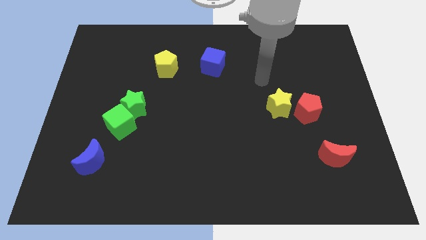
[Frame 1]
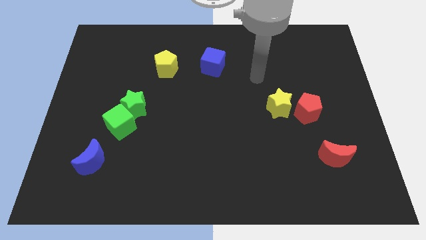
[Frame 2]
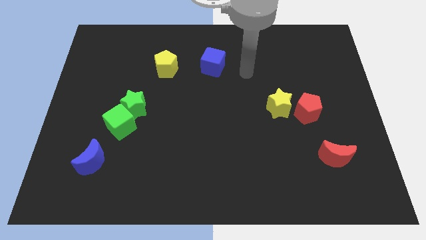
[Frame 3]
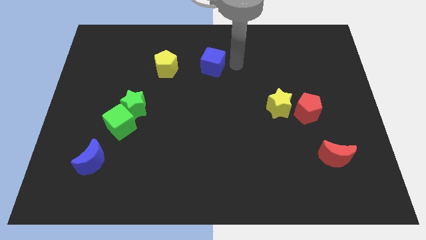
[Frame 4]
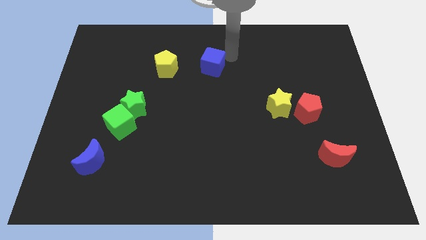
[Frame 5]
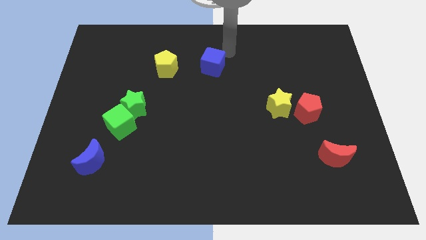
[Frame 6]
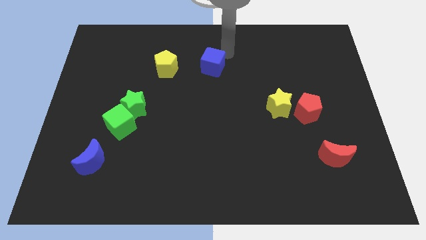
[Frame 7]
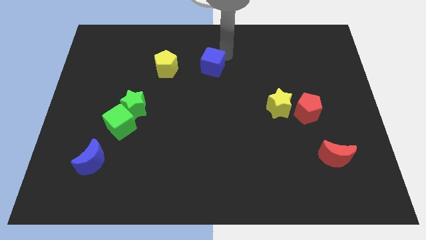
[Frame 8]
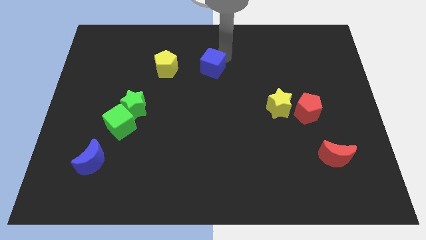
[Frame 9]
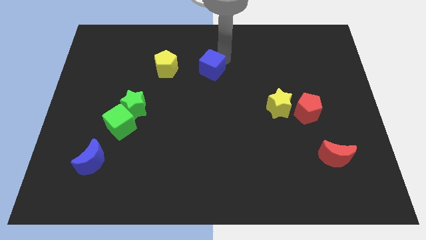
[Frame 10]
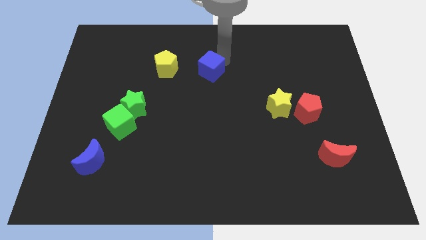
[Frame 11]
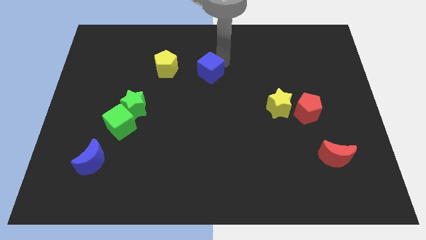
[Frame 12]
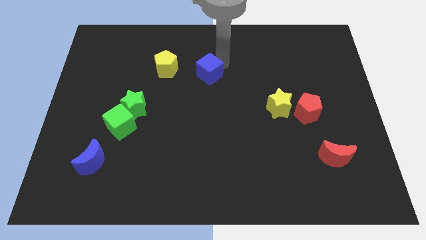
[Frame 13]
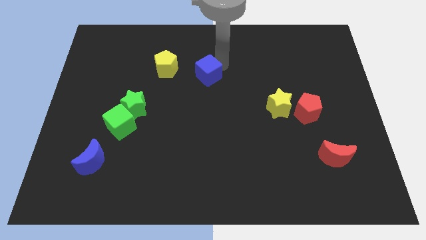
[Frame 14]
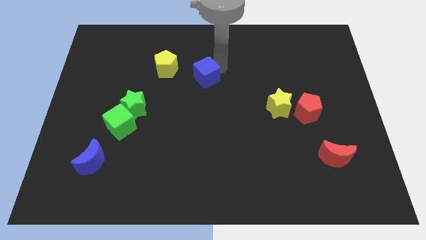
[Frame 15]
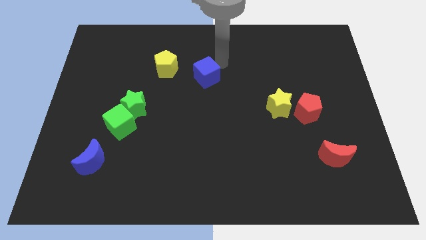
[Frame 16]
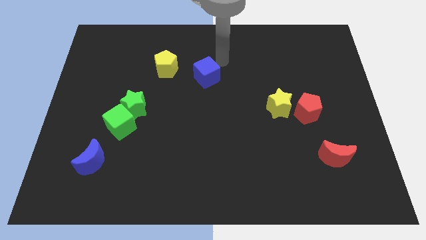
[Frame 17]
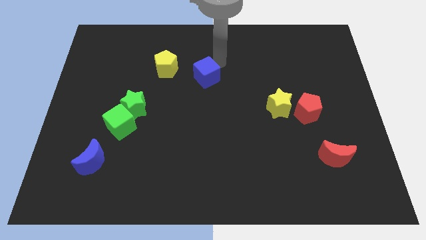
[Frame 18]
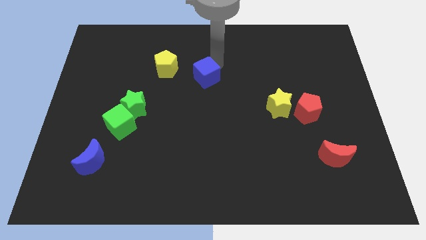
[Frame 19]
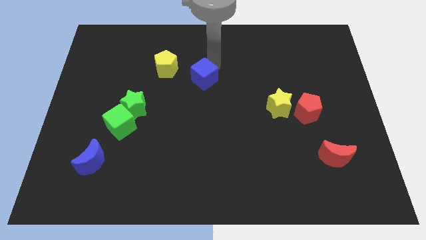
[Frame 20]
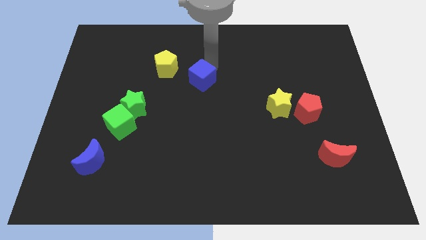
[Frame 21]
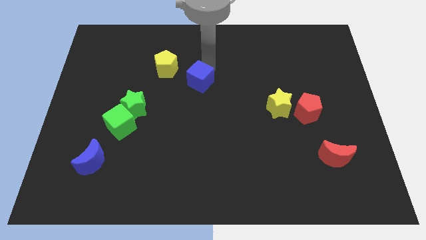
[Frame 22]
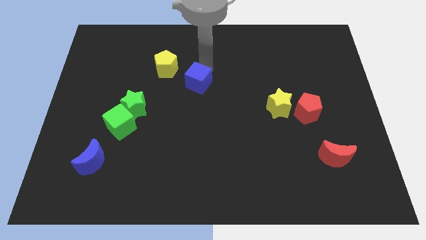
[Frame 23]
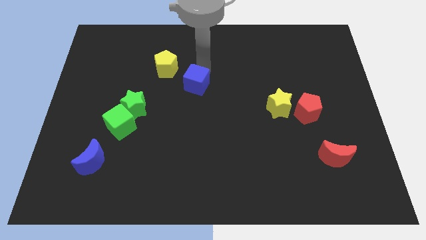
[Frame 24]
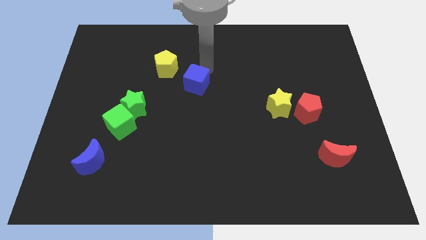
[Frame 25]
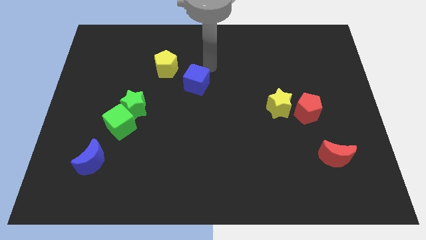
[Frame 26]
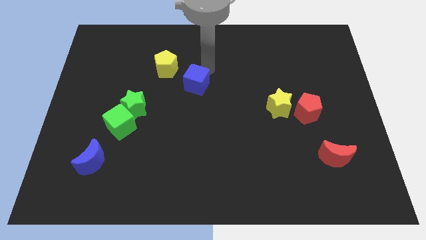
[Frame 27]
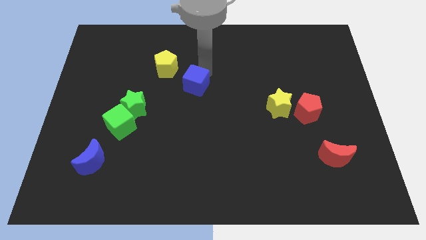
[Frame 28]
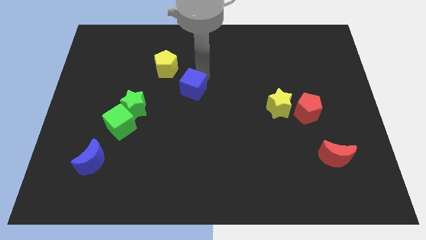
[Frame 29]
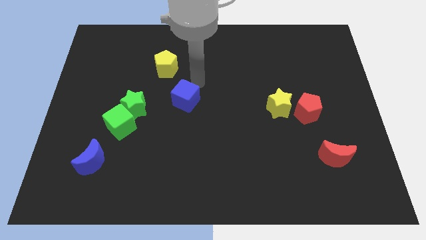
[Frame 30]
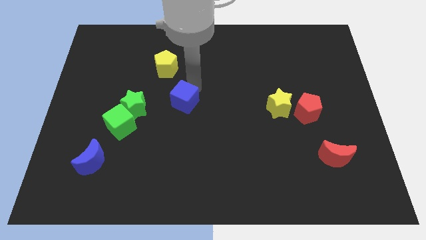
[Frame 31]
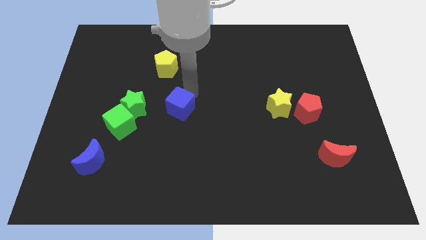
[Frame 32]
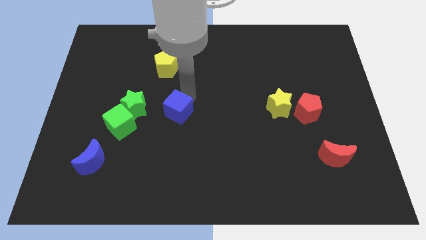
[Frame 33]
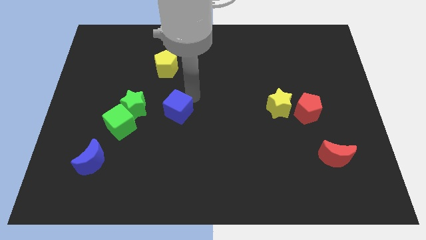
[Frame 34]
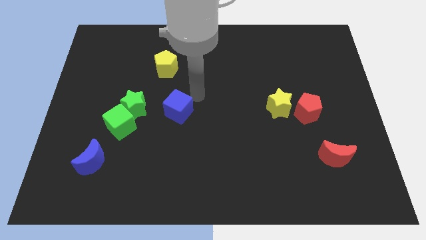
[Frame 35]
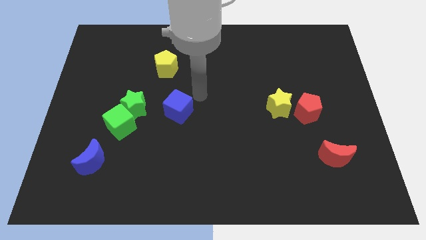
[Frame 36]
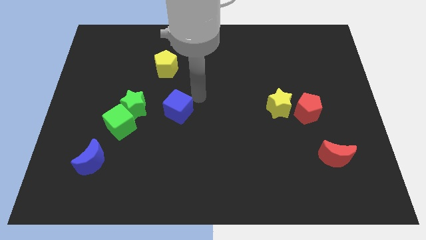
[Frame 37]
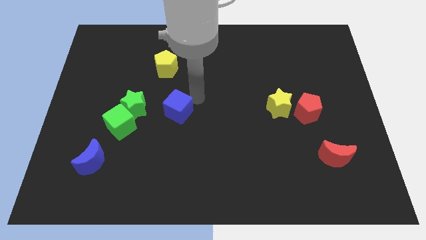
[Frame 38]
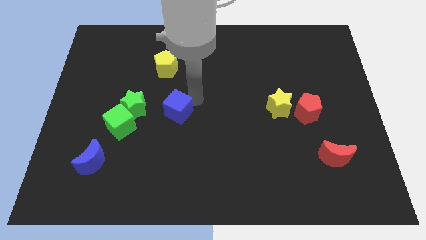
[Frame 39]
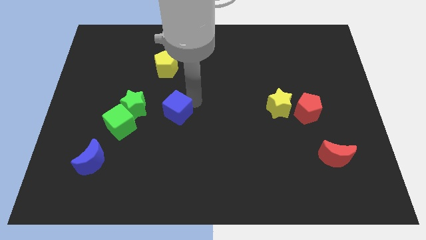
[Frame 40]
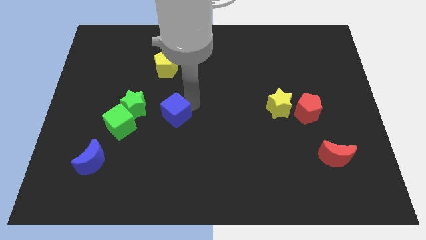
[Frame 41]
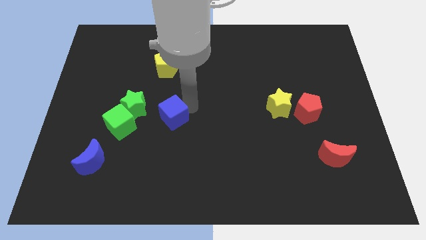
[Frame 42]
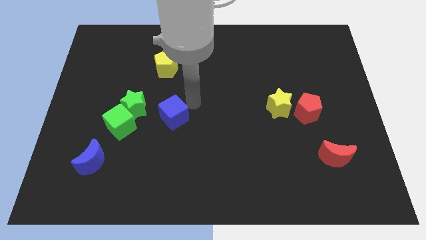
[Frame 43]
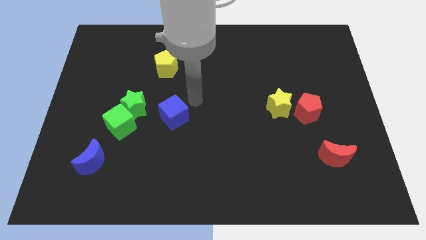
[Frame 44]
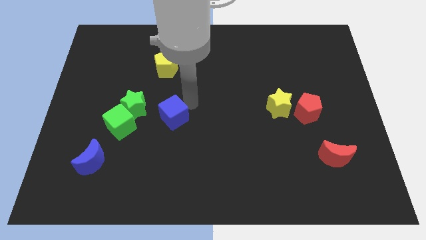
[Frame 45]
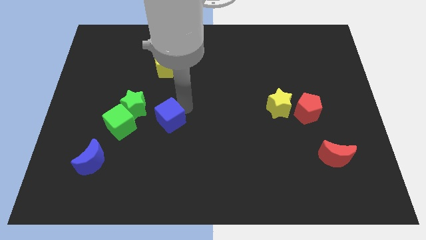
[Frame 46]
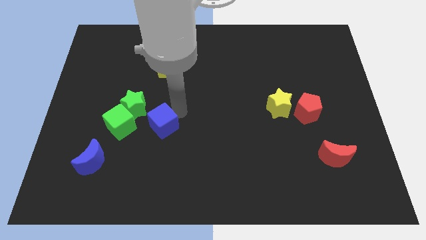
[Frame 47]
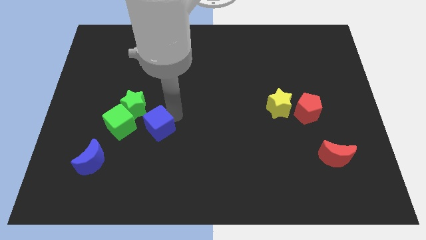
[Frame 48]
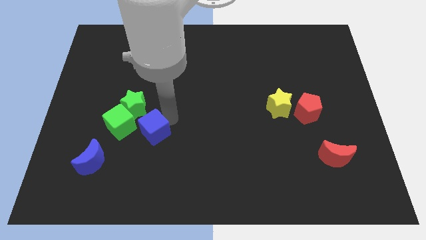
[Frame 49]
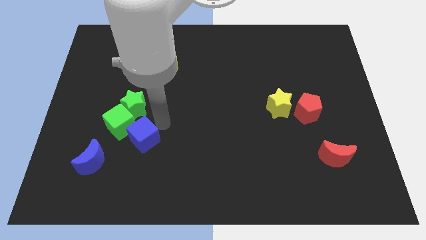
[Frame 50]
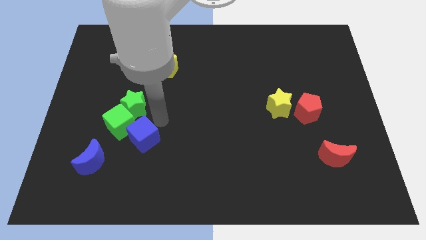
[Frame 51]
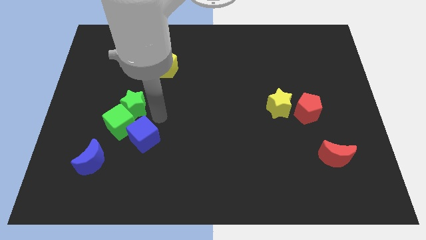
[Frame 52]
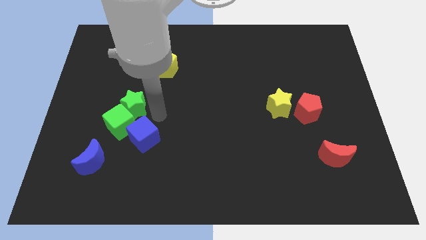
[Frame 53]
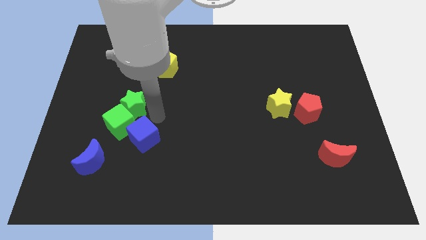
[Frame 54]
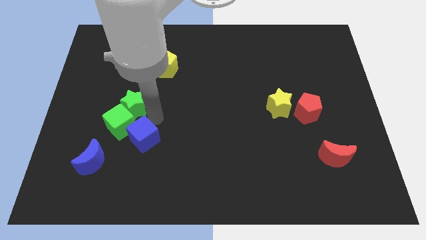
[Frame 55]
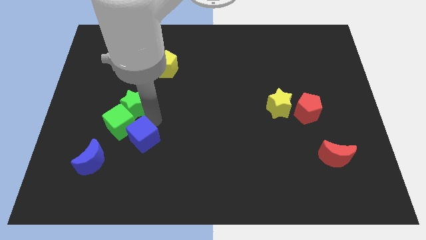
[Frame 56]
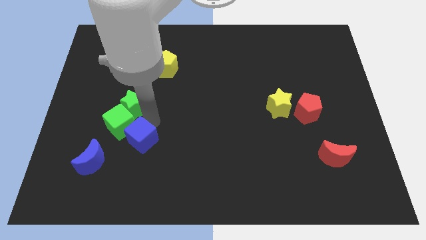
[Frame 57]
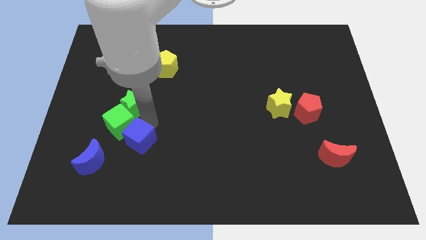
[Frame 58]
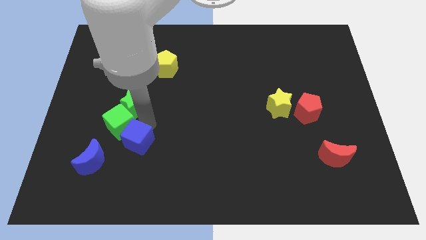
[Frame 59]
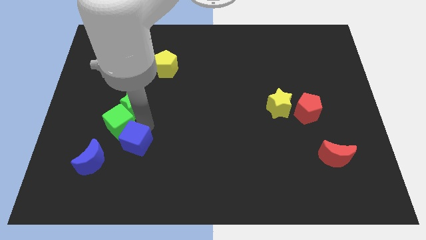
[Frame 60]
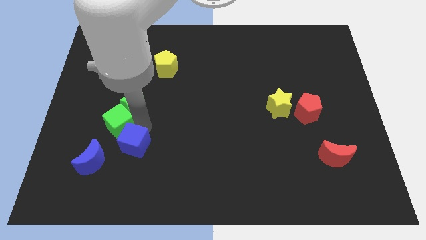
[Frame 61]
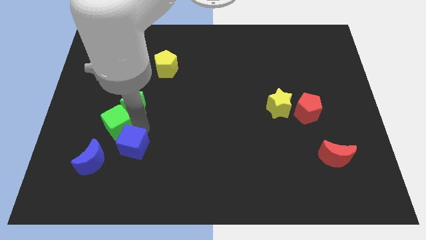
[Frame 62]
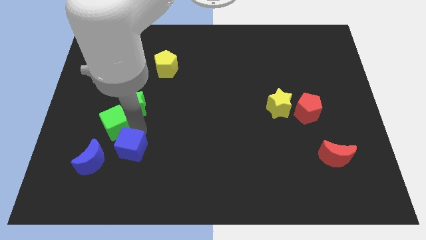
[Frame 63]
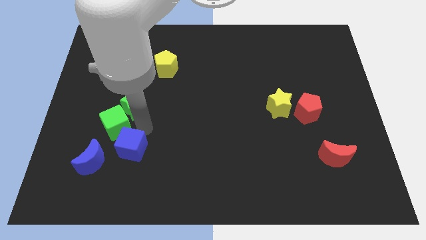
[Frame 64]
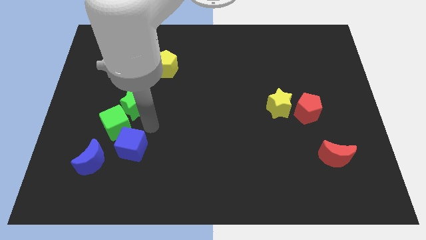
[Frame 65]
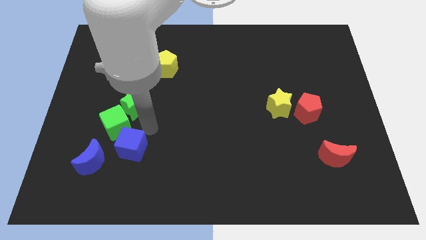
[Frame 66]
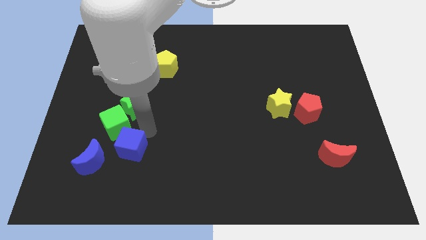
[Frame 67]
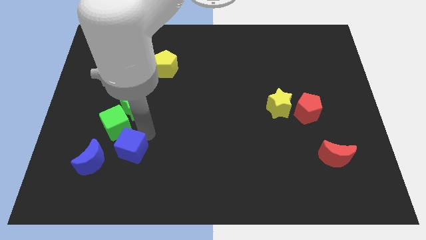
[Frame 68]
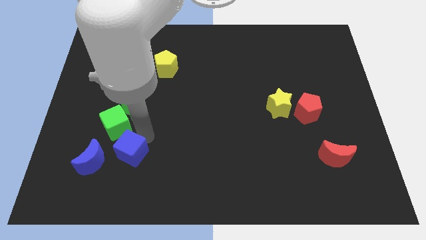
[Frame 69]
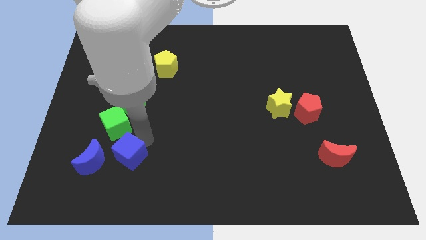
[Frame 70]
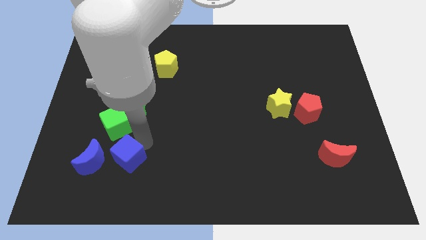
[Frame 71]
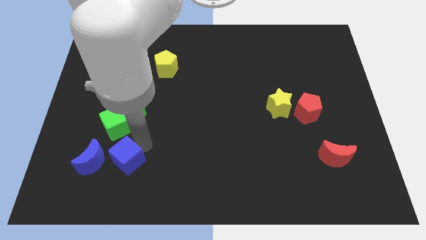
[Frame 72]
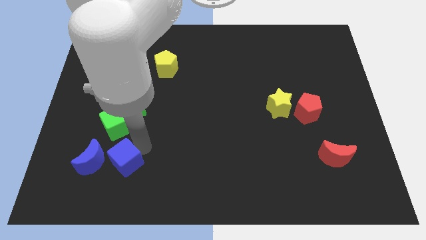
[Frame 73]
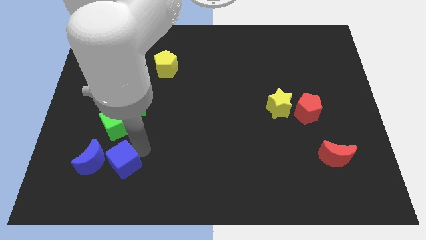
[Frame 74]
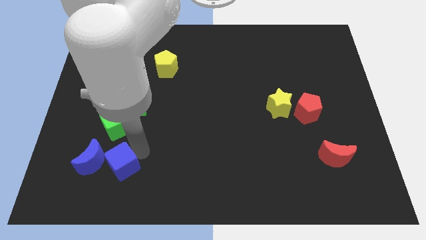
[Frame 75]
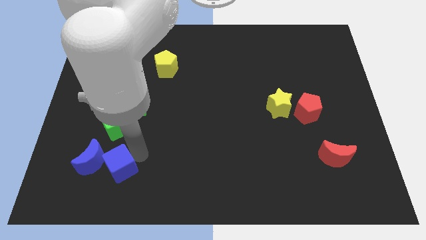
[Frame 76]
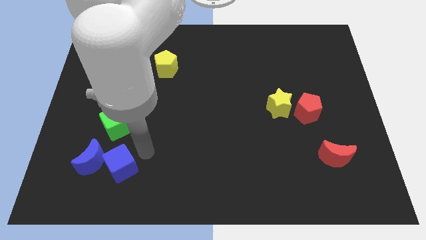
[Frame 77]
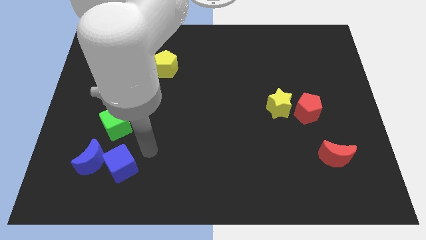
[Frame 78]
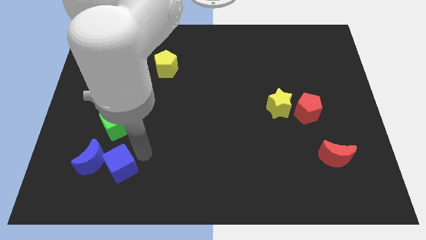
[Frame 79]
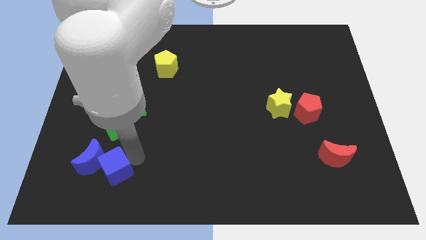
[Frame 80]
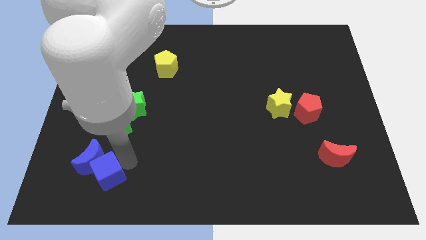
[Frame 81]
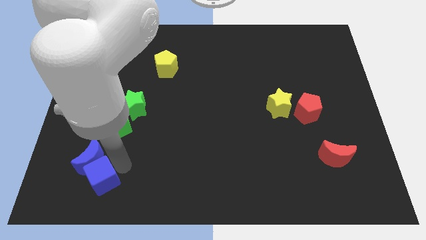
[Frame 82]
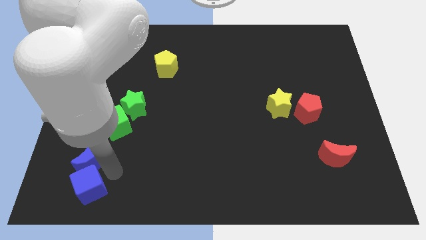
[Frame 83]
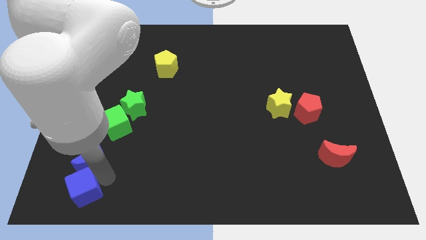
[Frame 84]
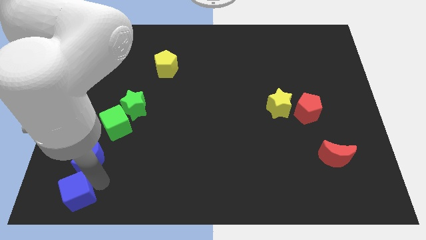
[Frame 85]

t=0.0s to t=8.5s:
push the blue cube to the bottom left
